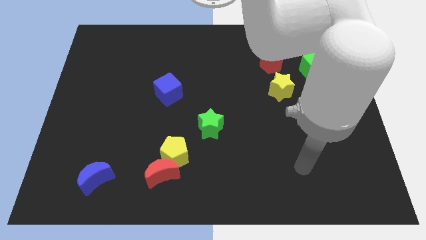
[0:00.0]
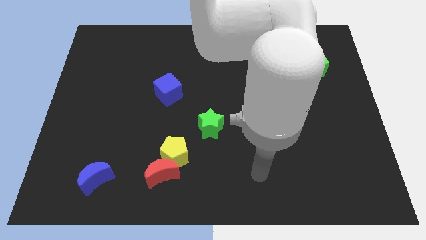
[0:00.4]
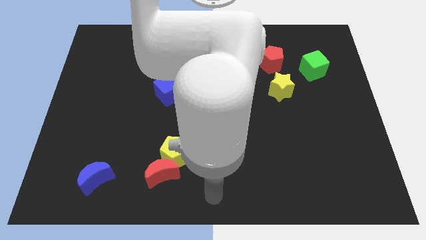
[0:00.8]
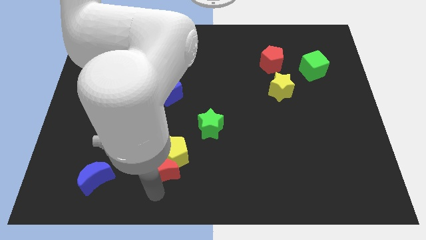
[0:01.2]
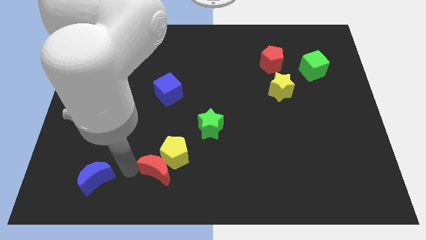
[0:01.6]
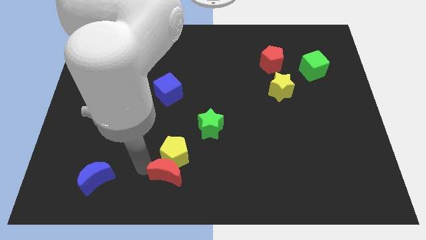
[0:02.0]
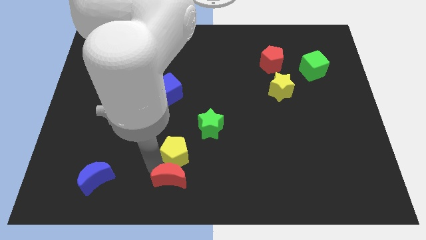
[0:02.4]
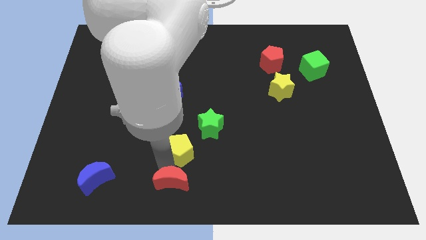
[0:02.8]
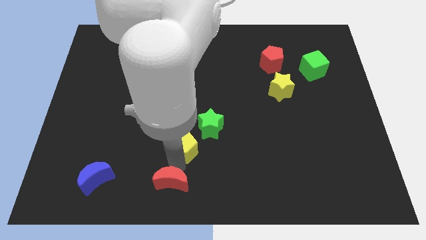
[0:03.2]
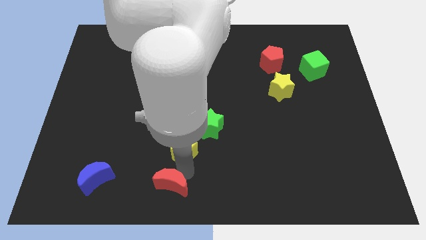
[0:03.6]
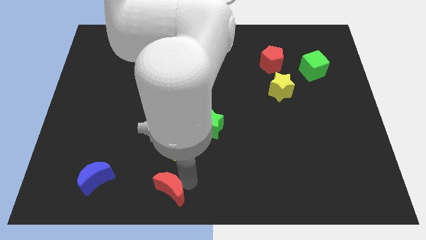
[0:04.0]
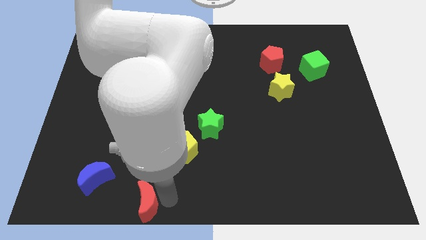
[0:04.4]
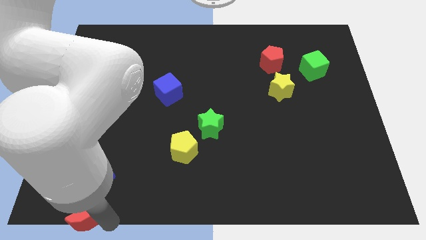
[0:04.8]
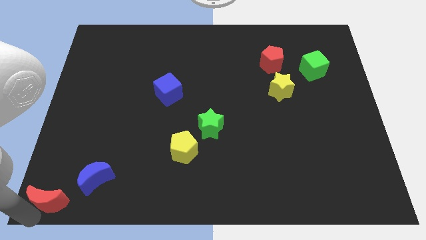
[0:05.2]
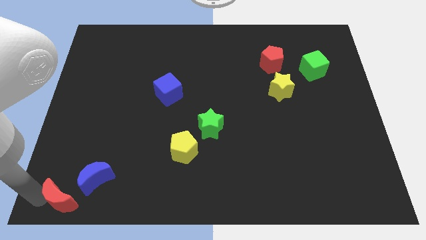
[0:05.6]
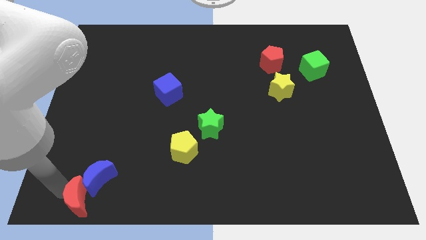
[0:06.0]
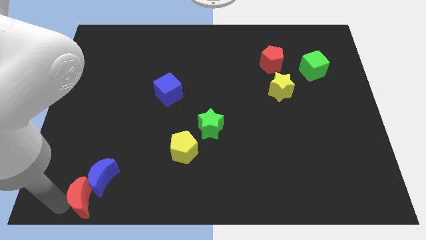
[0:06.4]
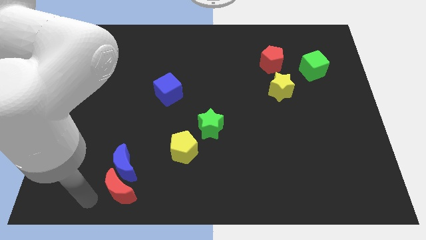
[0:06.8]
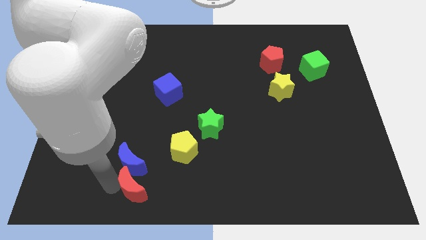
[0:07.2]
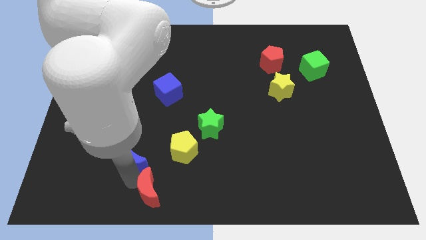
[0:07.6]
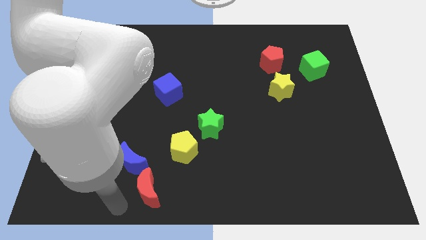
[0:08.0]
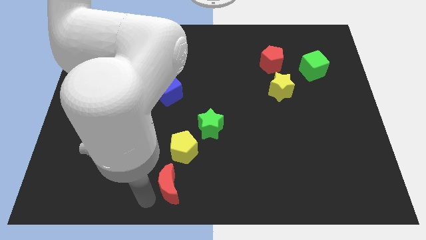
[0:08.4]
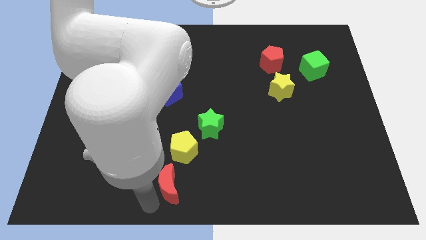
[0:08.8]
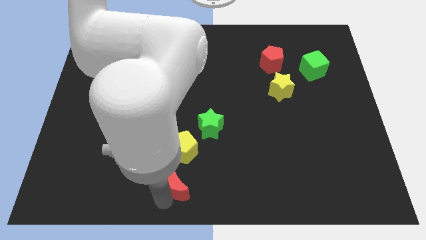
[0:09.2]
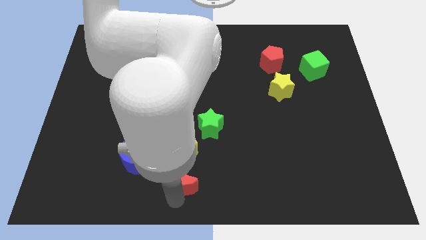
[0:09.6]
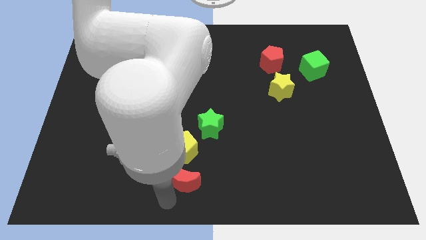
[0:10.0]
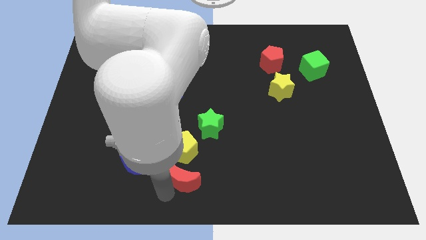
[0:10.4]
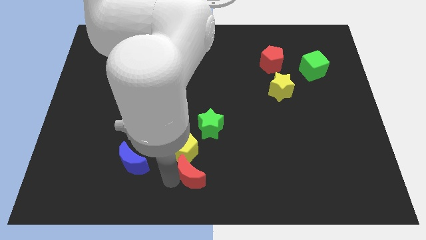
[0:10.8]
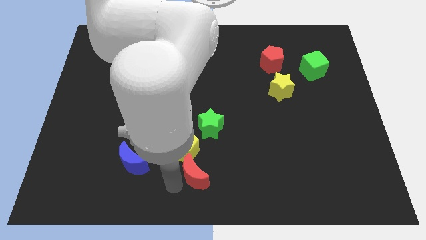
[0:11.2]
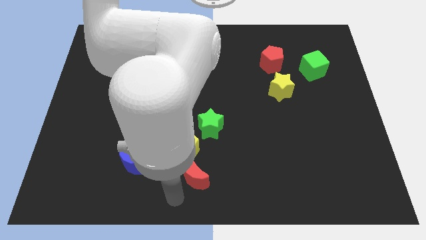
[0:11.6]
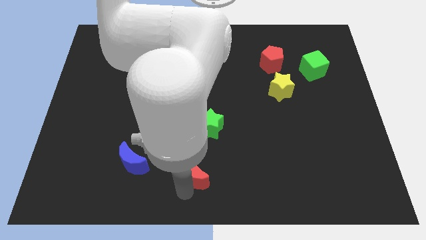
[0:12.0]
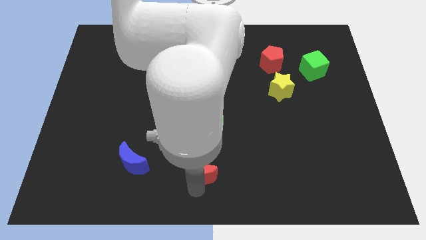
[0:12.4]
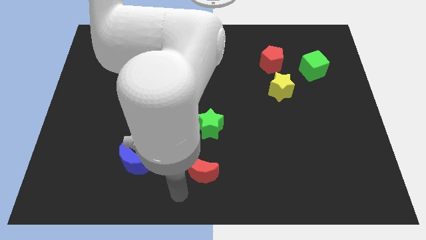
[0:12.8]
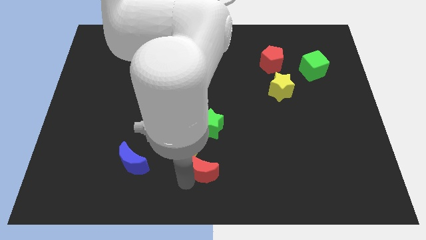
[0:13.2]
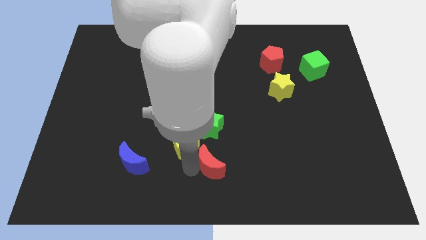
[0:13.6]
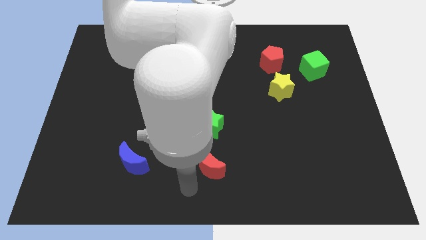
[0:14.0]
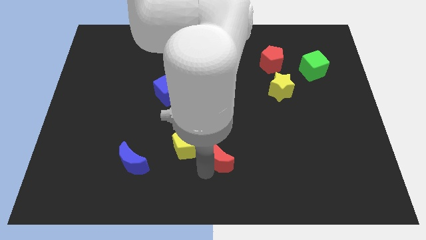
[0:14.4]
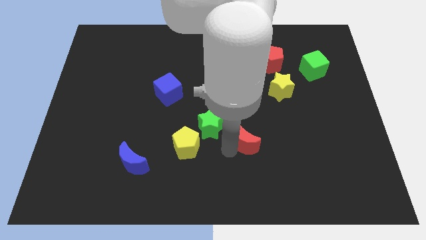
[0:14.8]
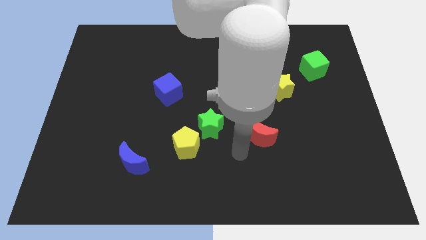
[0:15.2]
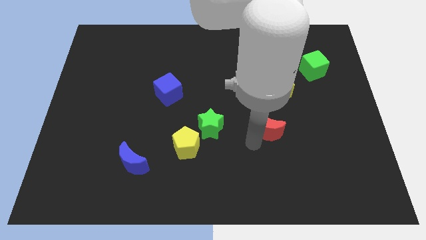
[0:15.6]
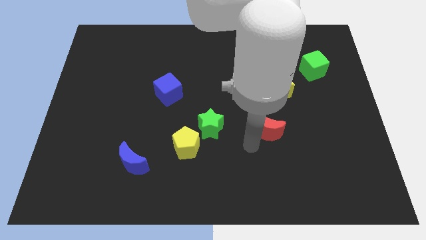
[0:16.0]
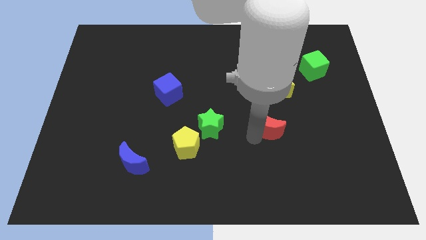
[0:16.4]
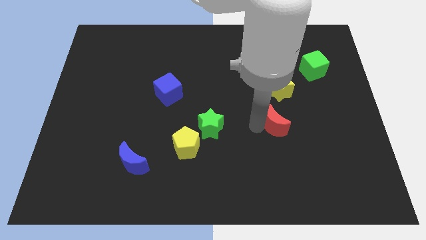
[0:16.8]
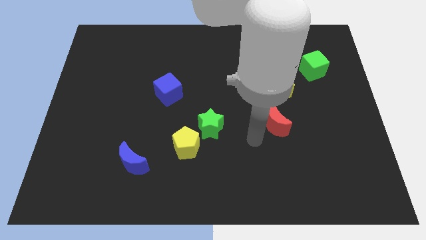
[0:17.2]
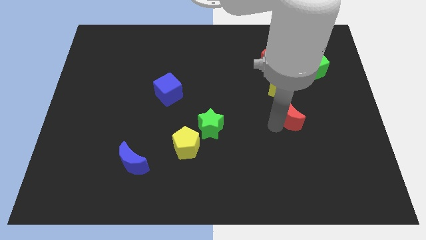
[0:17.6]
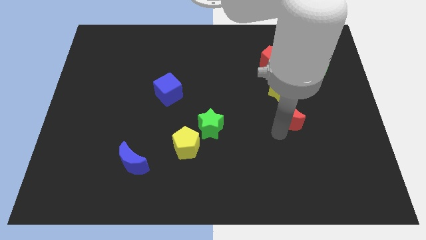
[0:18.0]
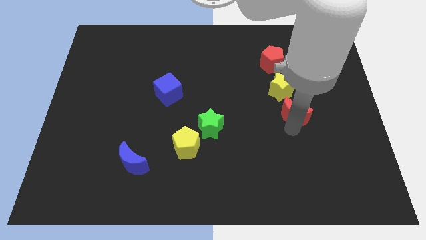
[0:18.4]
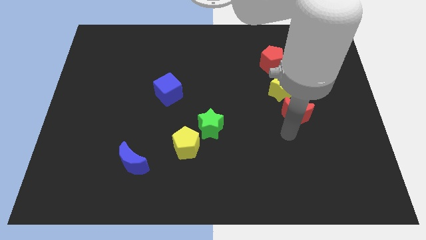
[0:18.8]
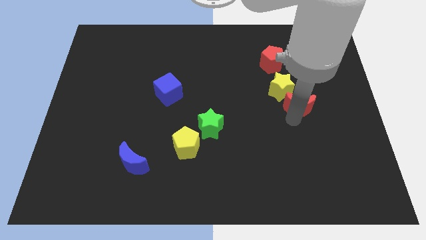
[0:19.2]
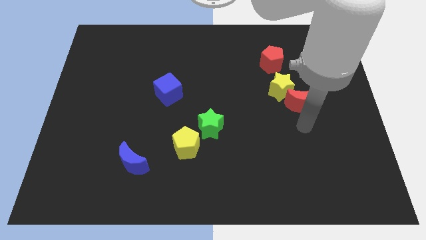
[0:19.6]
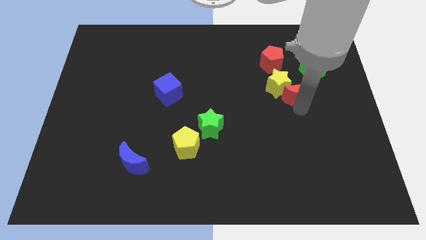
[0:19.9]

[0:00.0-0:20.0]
push the red moon to the bottom left of the green cube

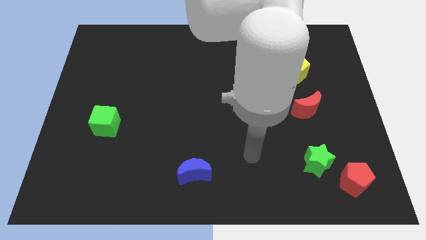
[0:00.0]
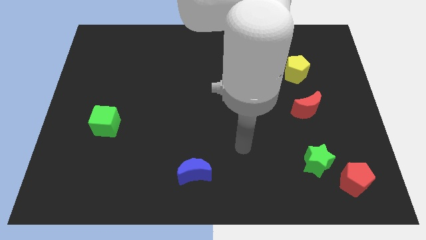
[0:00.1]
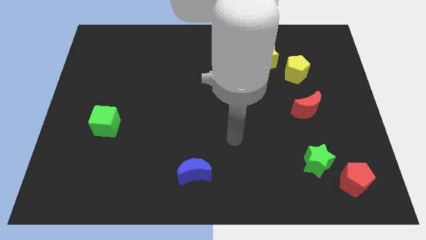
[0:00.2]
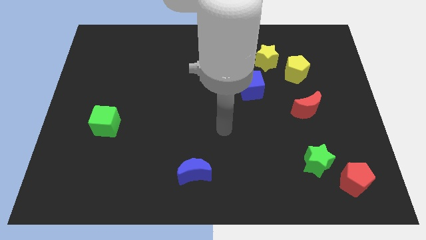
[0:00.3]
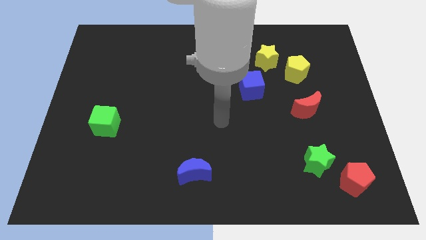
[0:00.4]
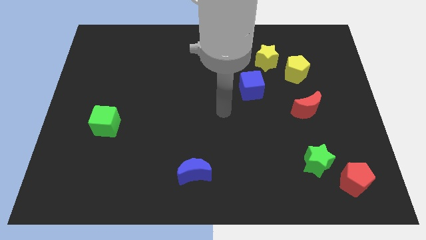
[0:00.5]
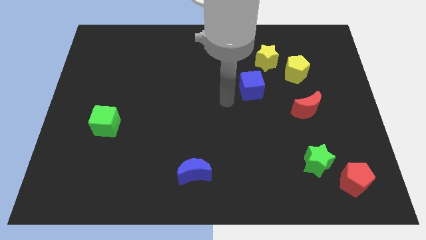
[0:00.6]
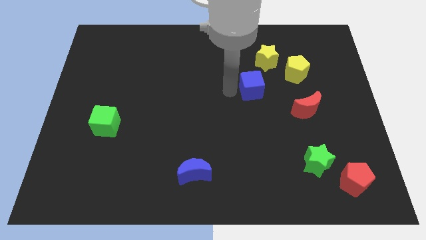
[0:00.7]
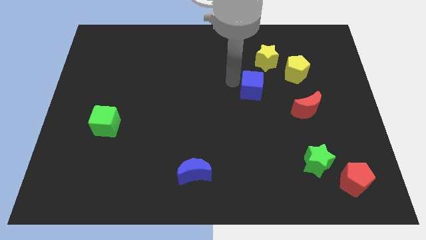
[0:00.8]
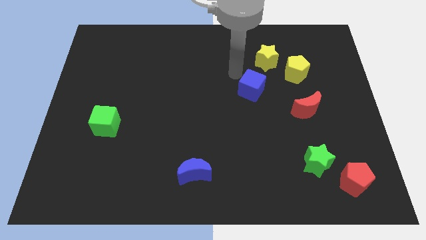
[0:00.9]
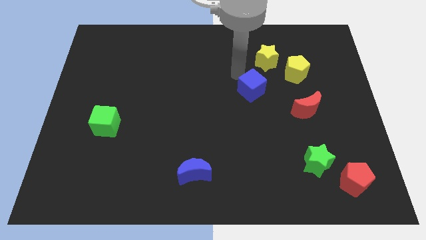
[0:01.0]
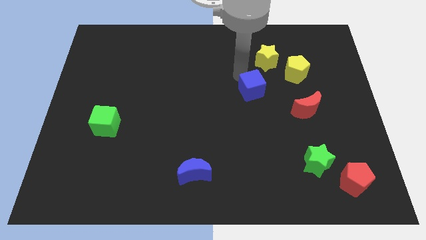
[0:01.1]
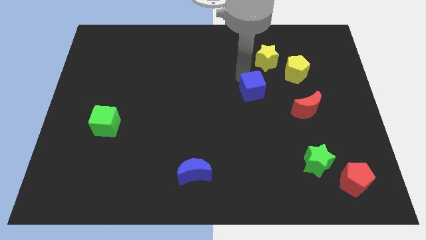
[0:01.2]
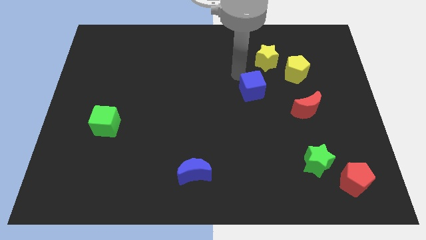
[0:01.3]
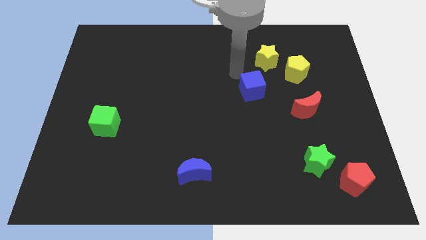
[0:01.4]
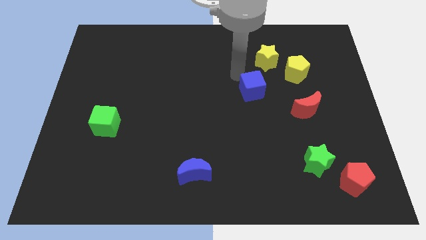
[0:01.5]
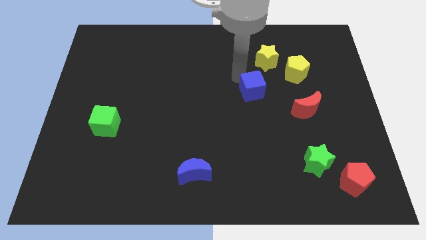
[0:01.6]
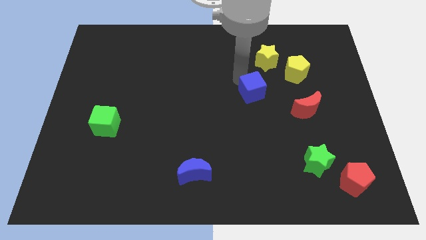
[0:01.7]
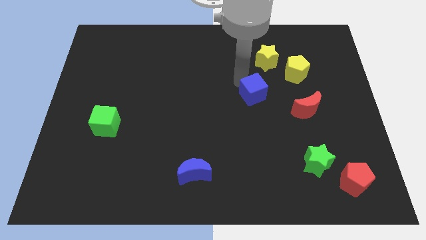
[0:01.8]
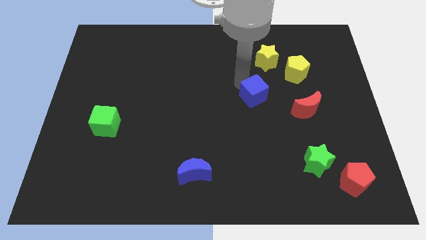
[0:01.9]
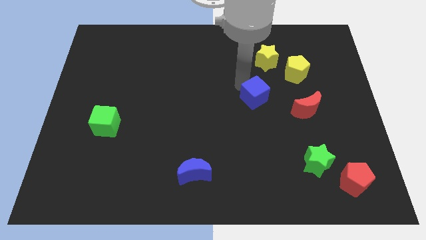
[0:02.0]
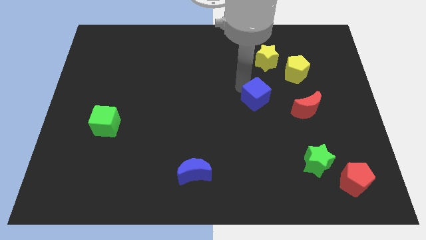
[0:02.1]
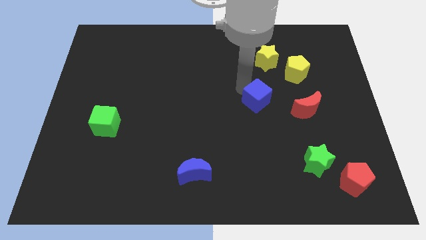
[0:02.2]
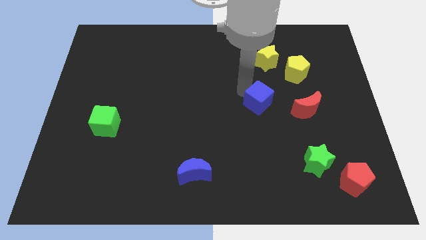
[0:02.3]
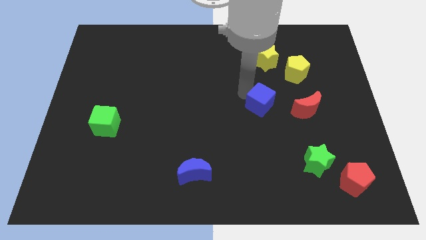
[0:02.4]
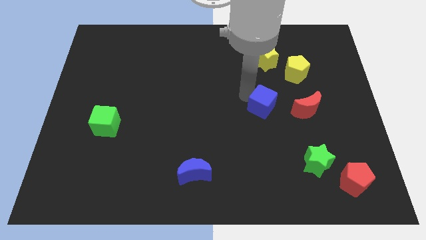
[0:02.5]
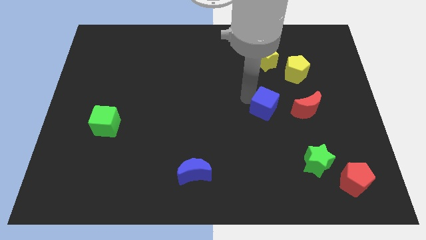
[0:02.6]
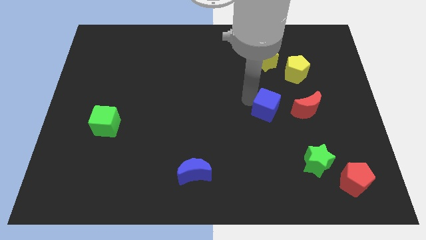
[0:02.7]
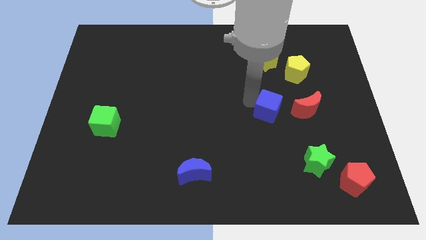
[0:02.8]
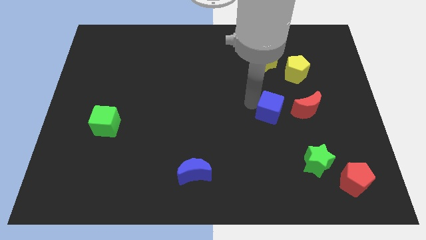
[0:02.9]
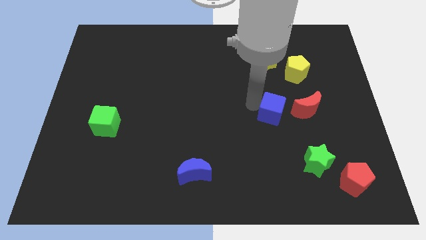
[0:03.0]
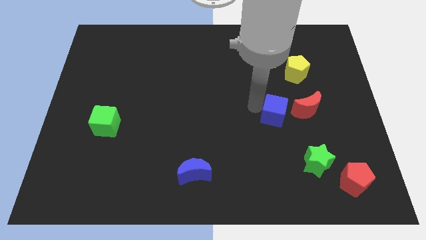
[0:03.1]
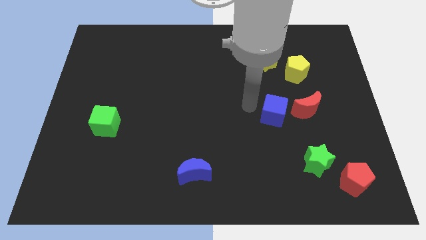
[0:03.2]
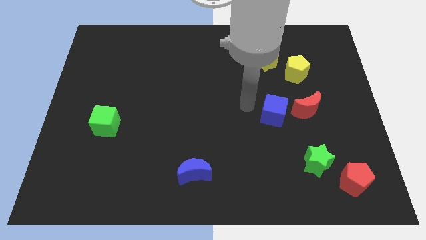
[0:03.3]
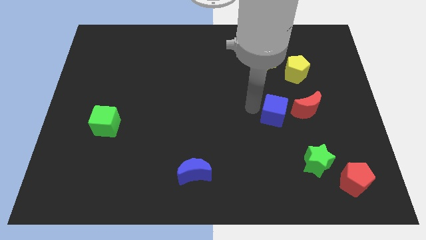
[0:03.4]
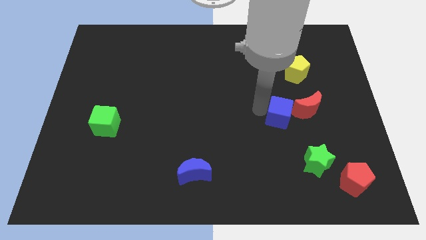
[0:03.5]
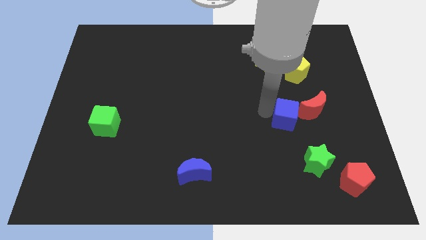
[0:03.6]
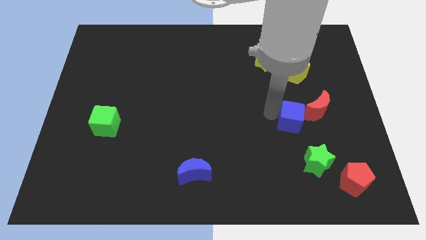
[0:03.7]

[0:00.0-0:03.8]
move the blue cube below the yellow pentagon
